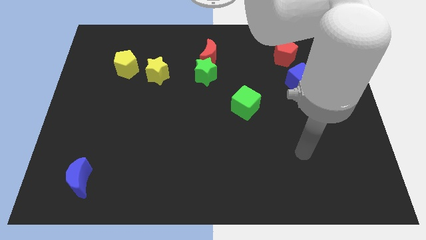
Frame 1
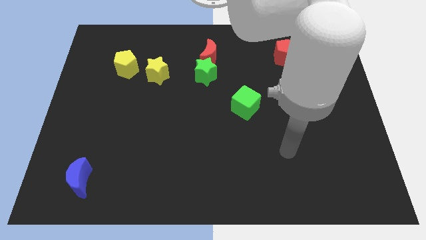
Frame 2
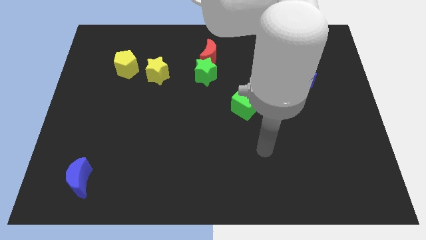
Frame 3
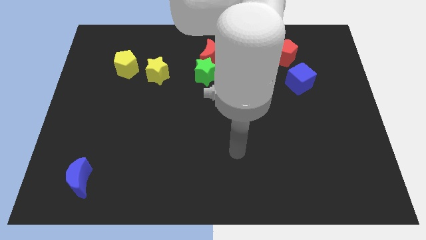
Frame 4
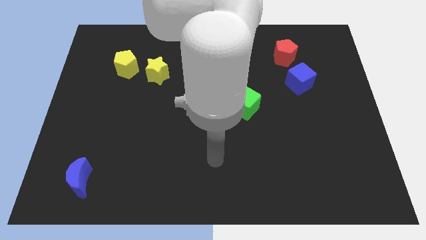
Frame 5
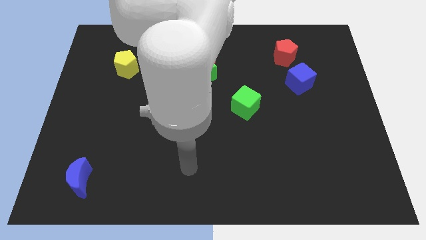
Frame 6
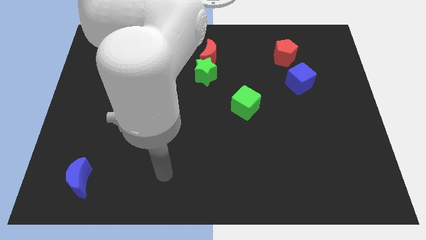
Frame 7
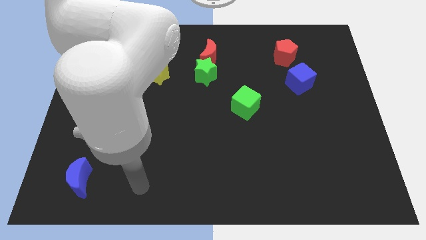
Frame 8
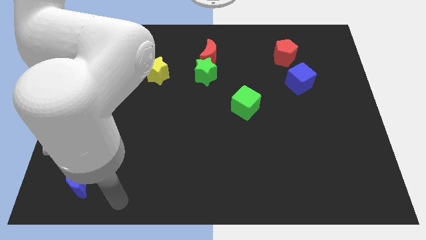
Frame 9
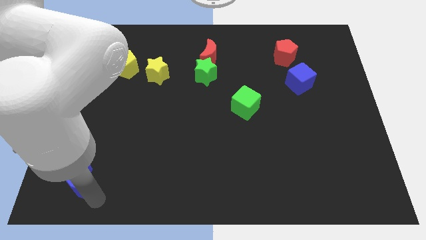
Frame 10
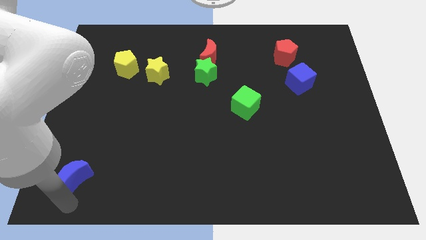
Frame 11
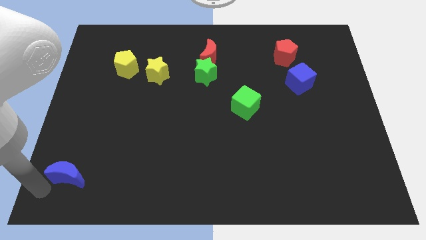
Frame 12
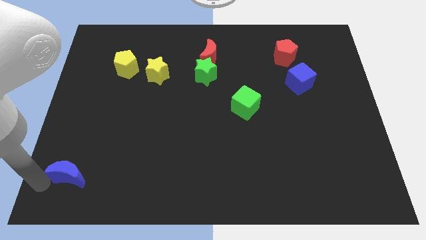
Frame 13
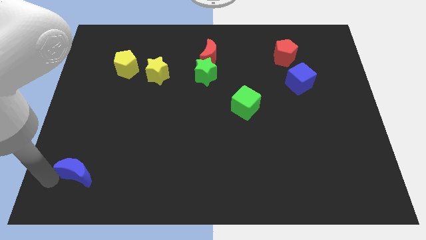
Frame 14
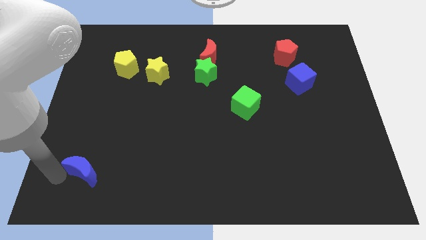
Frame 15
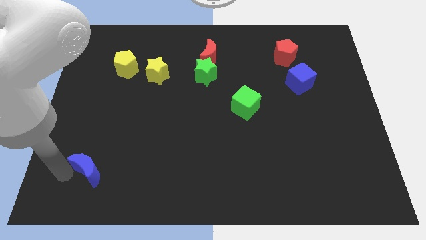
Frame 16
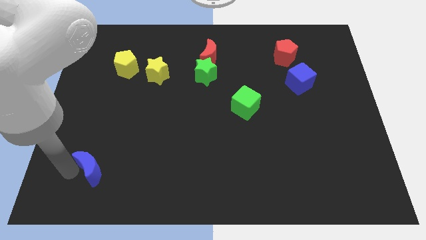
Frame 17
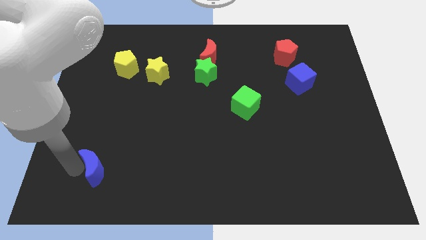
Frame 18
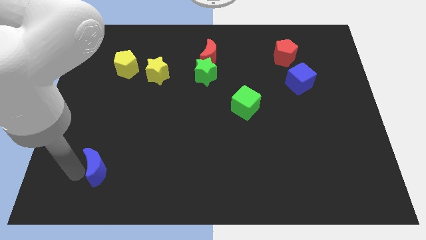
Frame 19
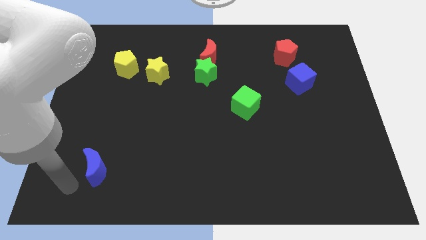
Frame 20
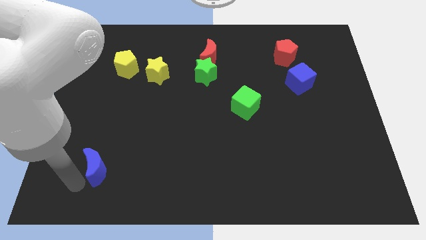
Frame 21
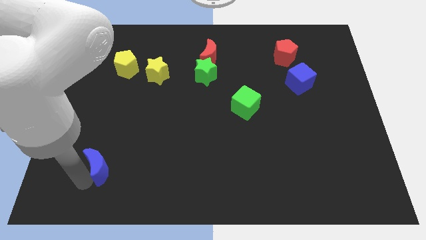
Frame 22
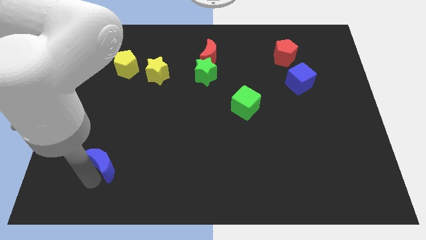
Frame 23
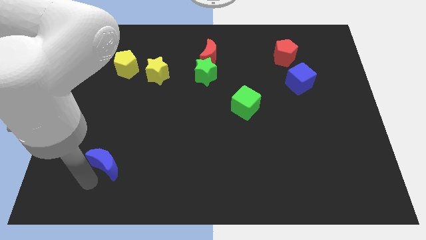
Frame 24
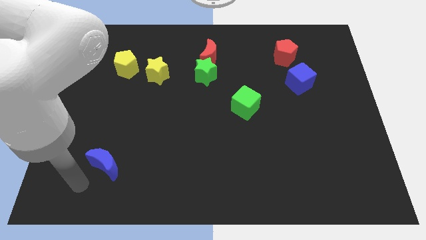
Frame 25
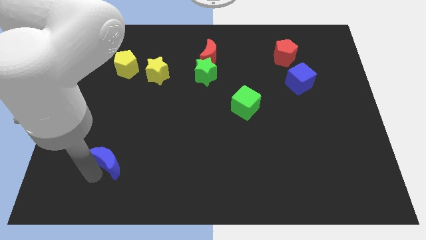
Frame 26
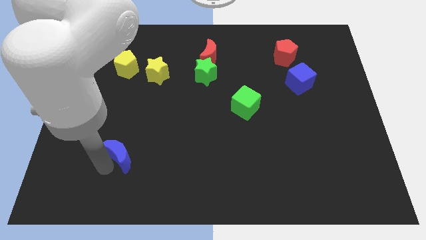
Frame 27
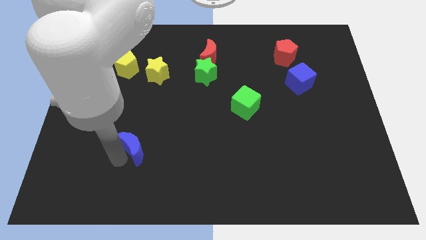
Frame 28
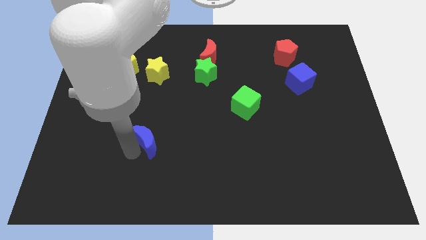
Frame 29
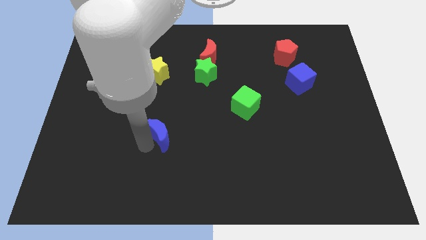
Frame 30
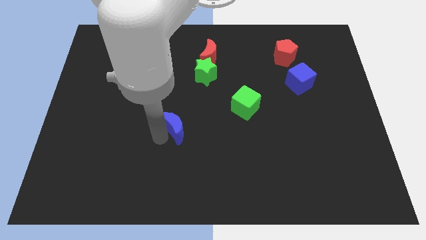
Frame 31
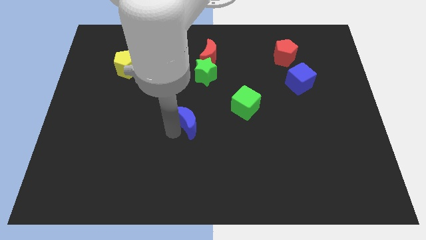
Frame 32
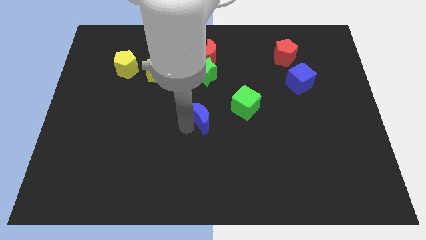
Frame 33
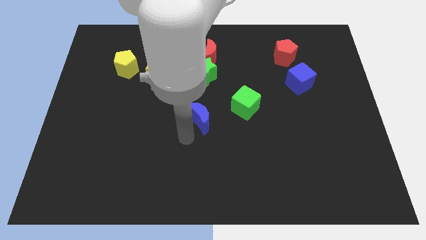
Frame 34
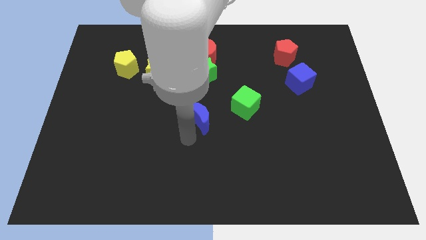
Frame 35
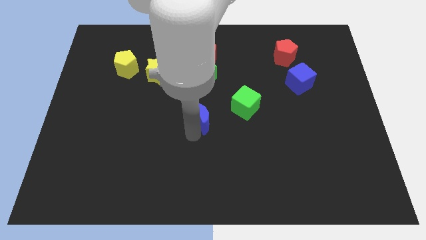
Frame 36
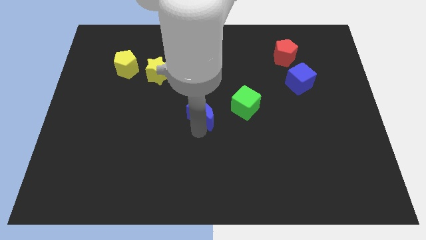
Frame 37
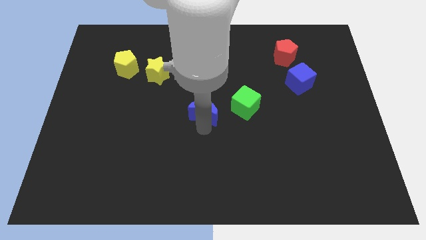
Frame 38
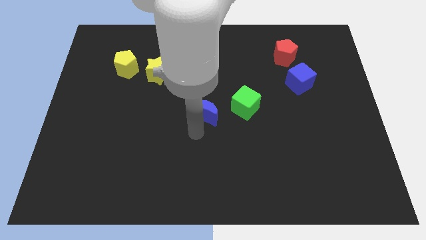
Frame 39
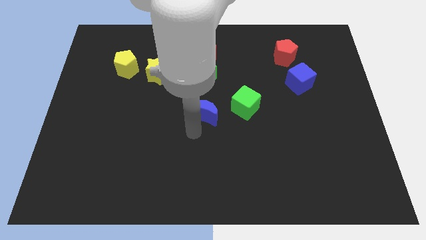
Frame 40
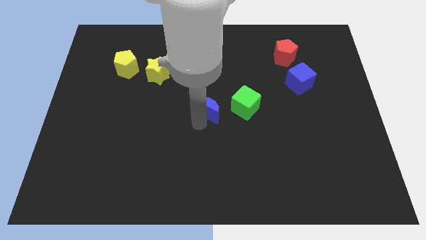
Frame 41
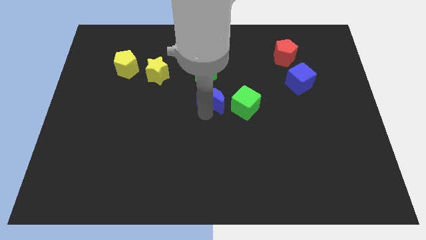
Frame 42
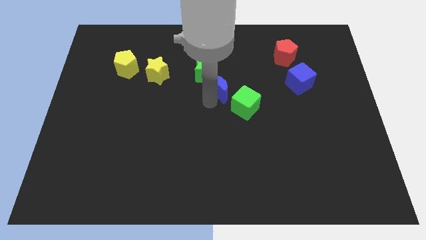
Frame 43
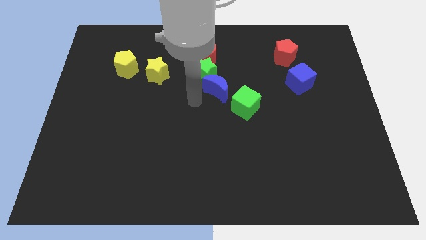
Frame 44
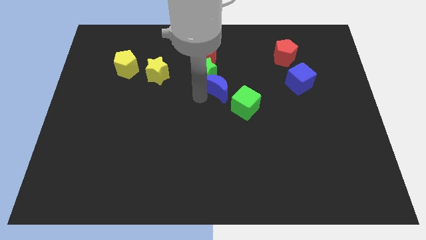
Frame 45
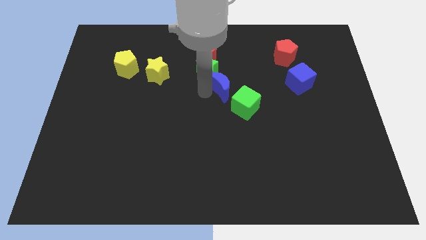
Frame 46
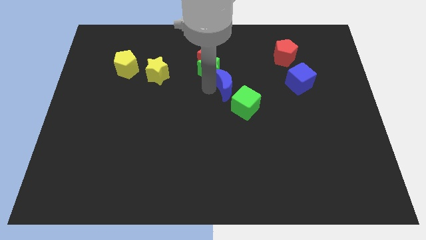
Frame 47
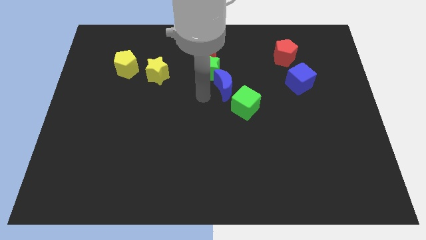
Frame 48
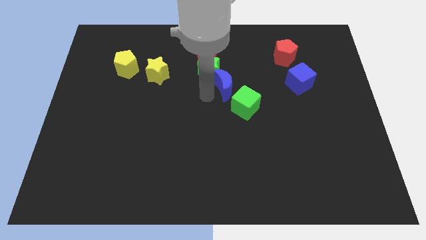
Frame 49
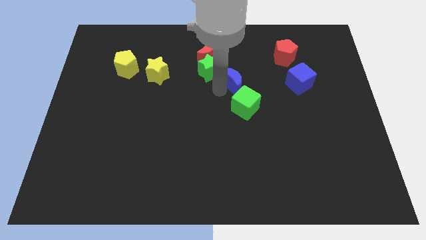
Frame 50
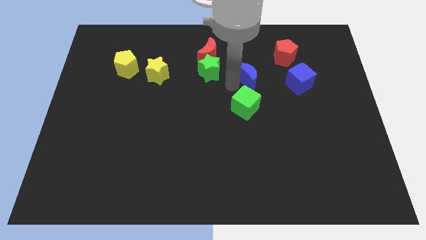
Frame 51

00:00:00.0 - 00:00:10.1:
put the blue moon to the bottom left of the red pentagon

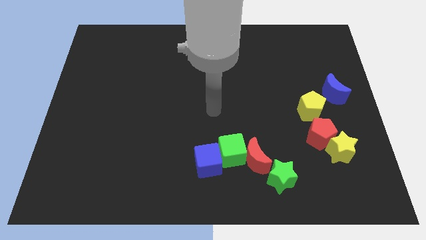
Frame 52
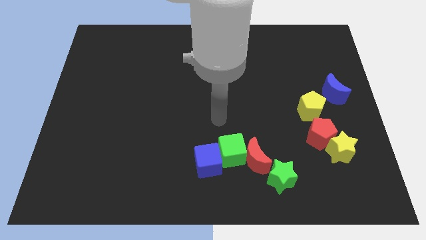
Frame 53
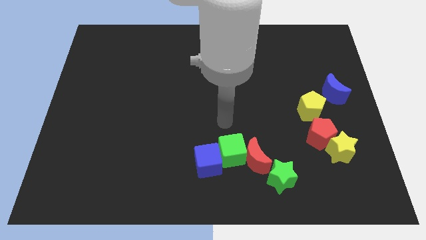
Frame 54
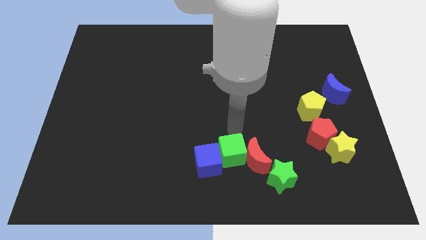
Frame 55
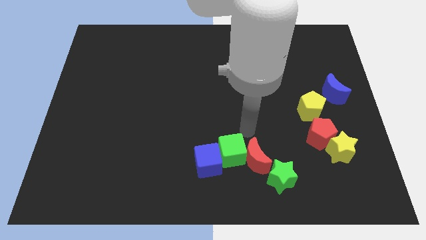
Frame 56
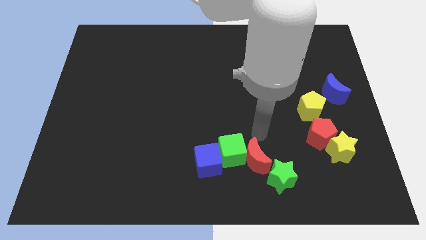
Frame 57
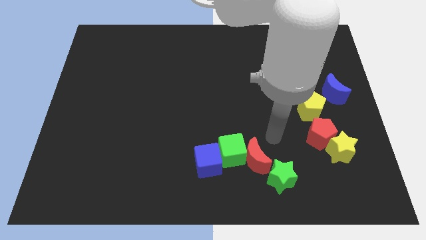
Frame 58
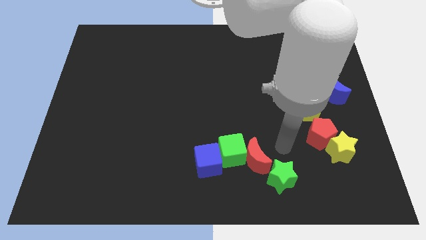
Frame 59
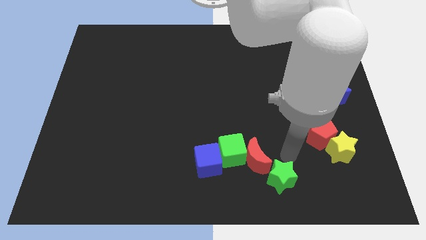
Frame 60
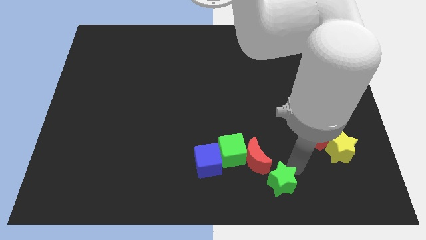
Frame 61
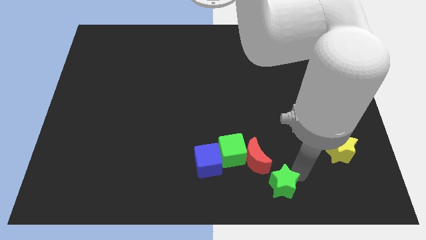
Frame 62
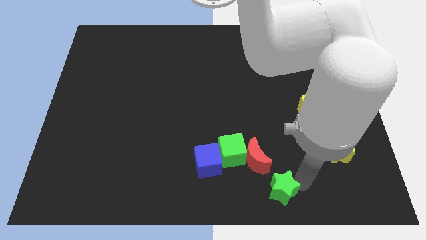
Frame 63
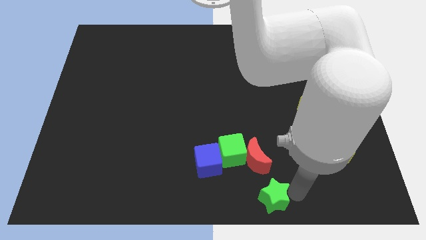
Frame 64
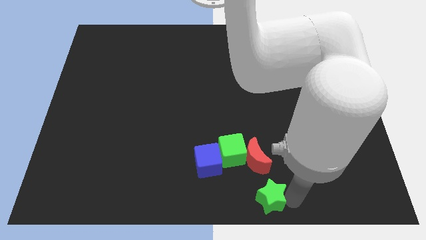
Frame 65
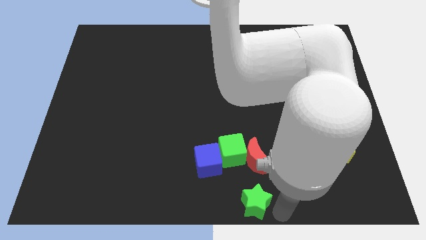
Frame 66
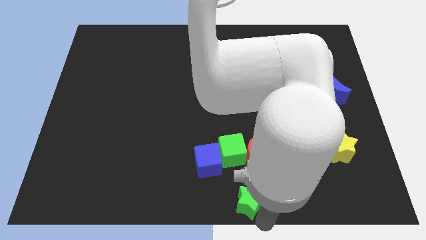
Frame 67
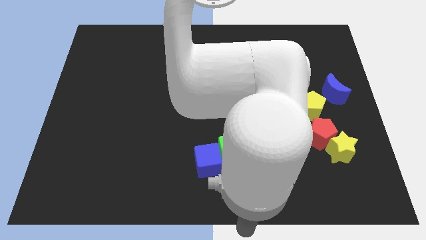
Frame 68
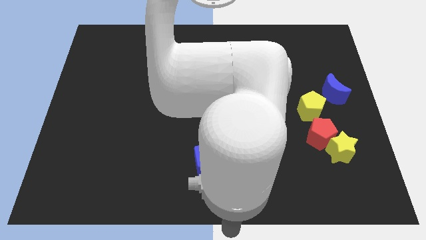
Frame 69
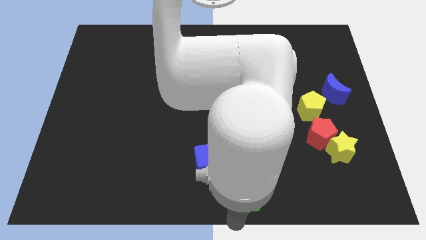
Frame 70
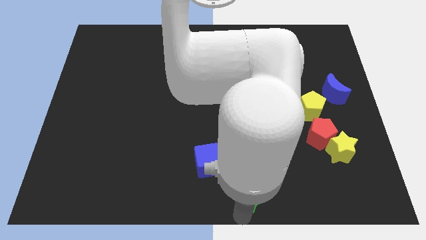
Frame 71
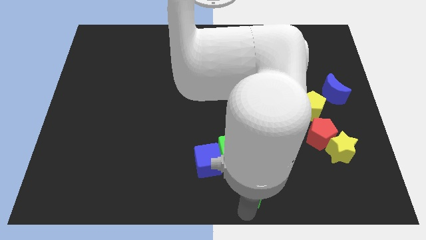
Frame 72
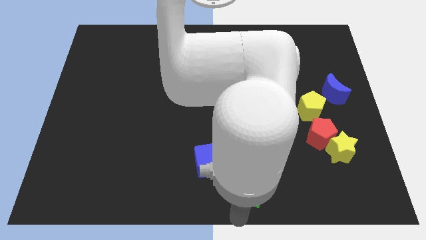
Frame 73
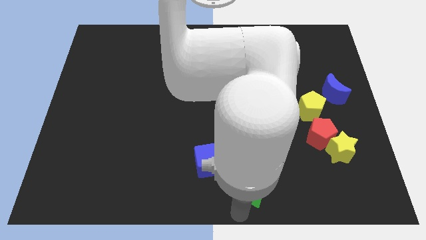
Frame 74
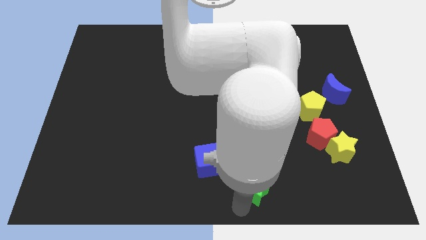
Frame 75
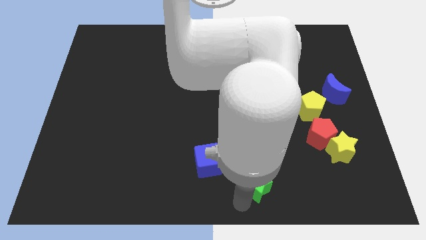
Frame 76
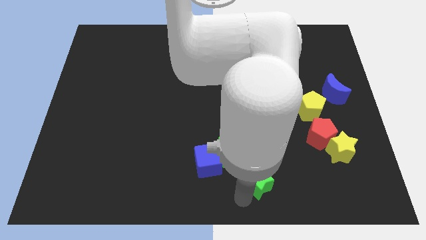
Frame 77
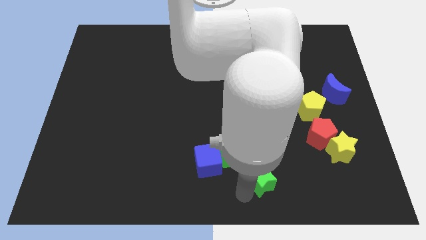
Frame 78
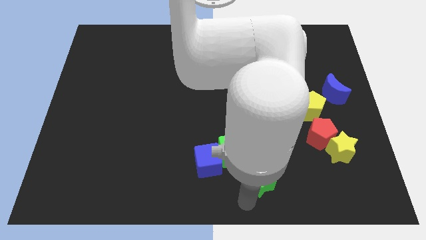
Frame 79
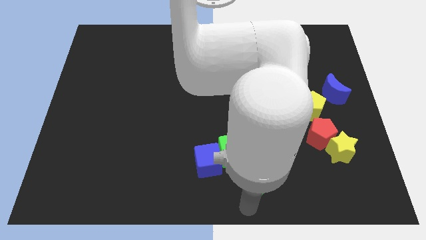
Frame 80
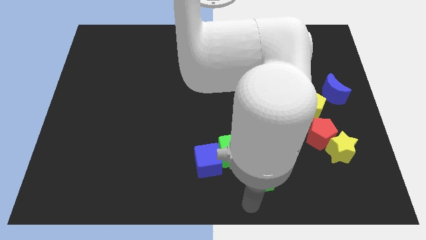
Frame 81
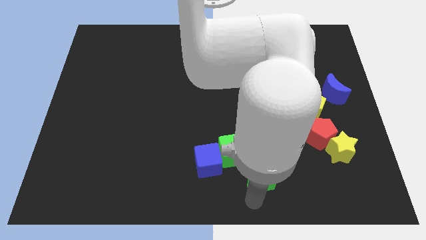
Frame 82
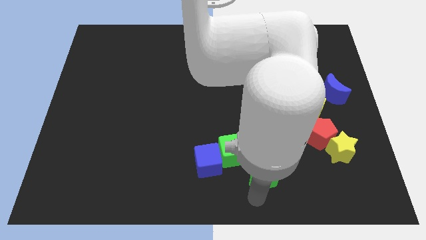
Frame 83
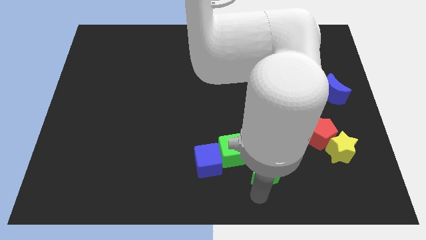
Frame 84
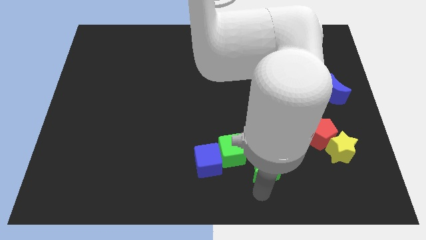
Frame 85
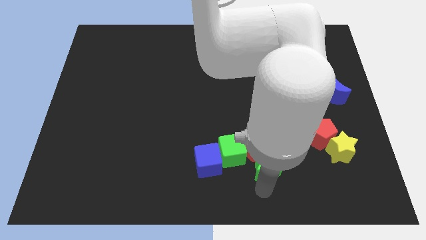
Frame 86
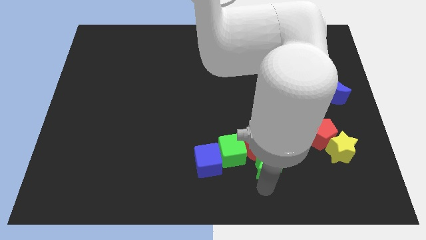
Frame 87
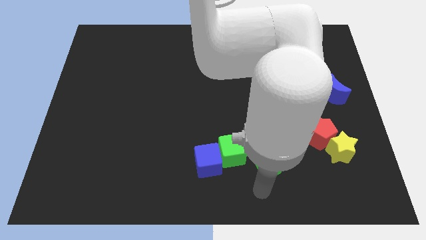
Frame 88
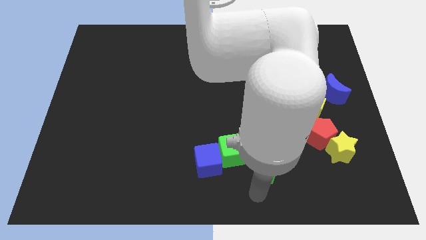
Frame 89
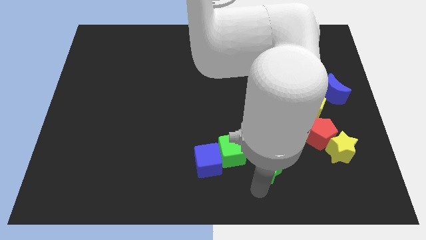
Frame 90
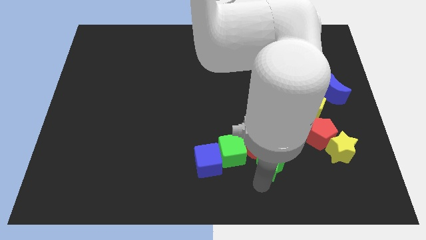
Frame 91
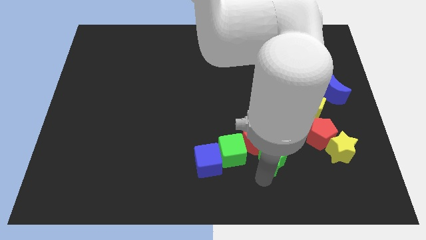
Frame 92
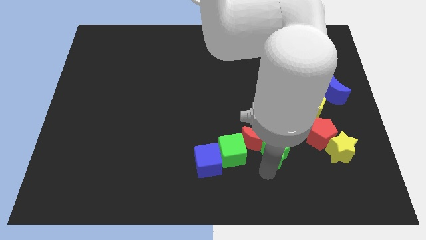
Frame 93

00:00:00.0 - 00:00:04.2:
slide the green star to the left of the red pentagon
